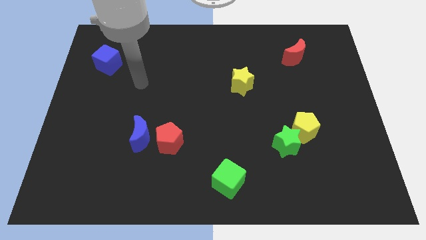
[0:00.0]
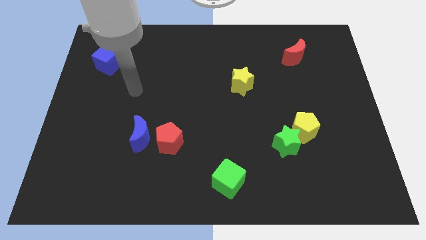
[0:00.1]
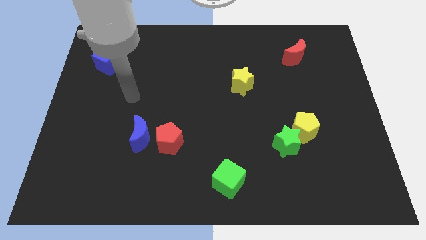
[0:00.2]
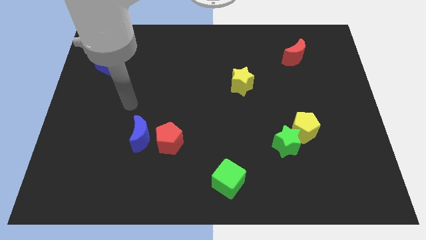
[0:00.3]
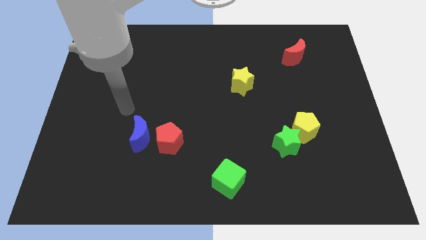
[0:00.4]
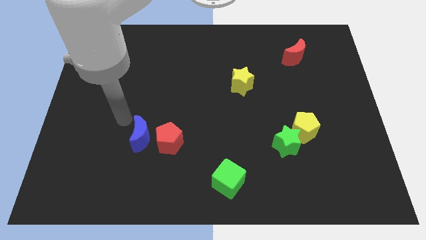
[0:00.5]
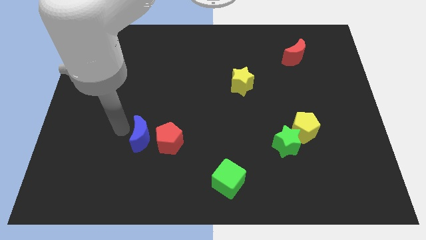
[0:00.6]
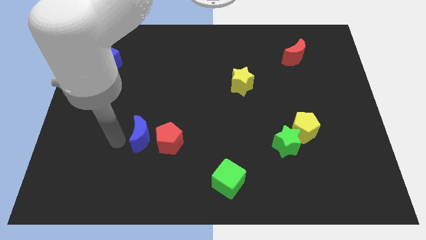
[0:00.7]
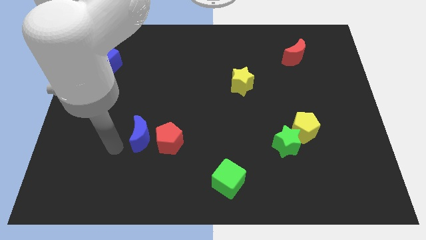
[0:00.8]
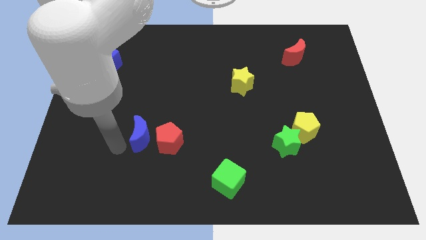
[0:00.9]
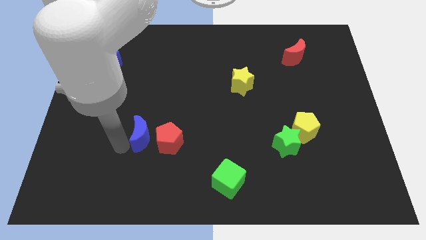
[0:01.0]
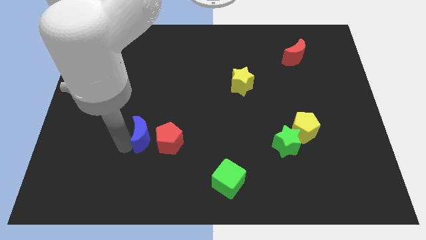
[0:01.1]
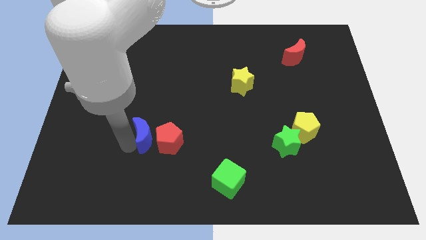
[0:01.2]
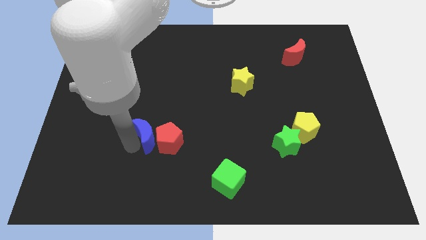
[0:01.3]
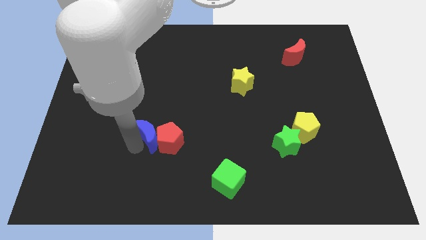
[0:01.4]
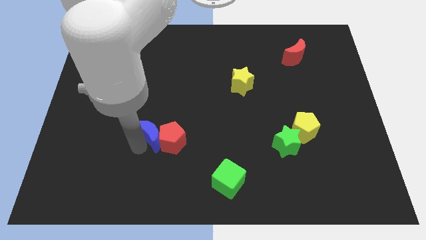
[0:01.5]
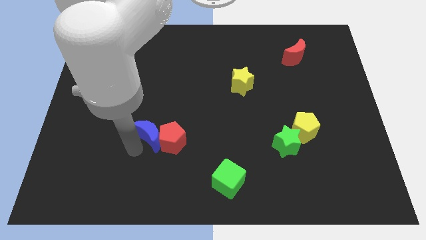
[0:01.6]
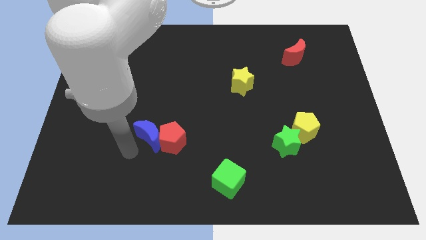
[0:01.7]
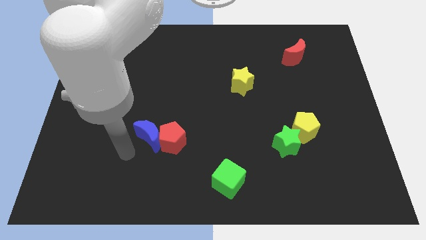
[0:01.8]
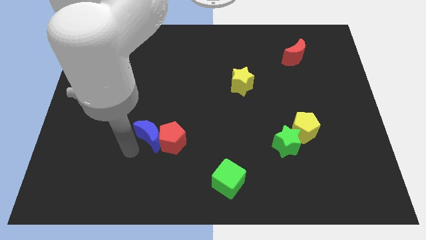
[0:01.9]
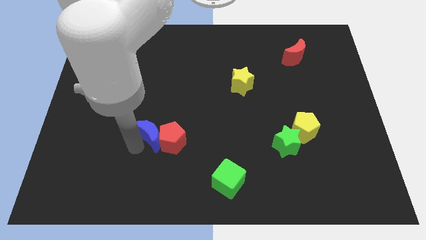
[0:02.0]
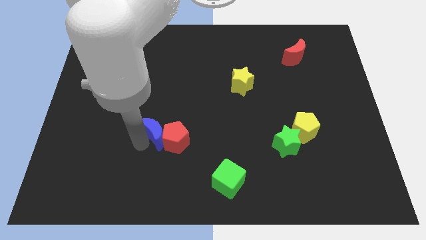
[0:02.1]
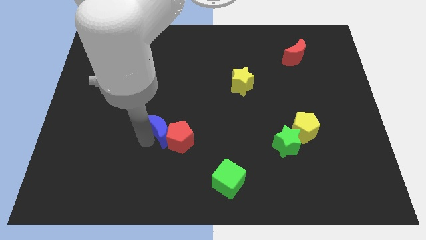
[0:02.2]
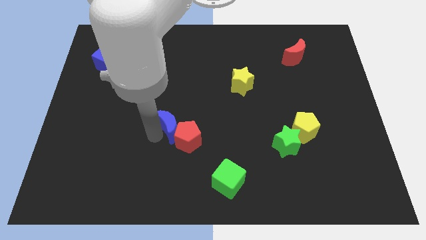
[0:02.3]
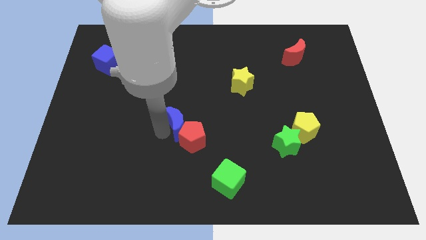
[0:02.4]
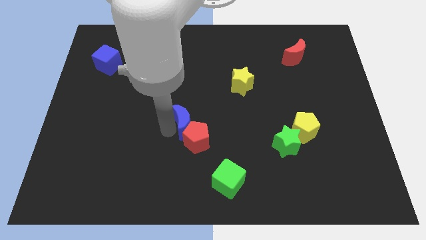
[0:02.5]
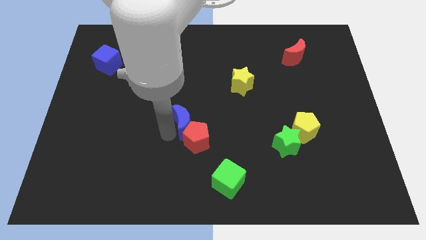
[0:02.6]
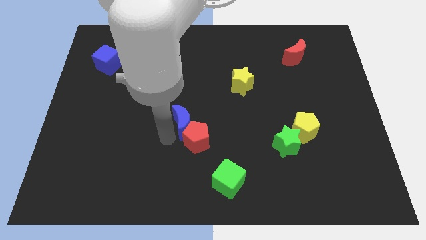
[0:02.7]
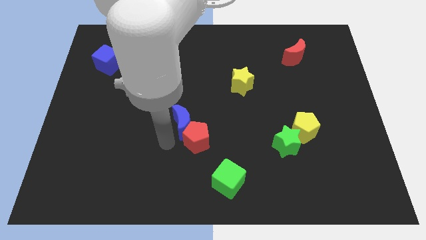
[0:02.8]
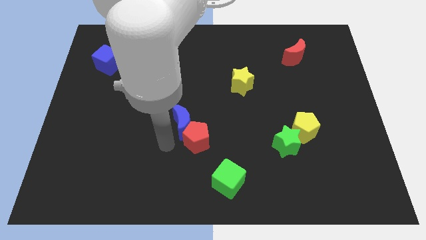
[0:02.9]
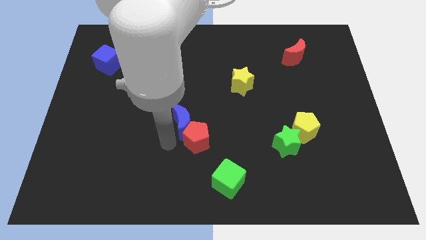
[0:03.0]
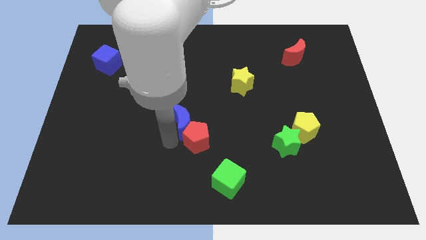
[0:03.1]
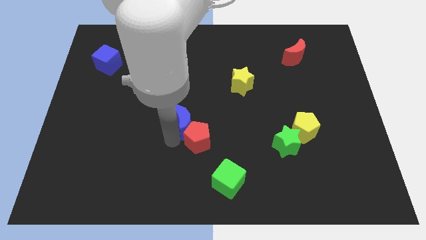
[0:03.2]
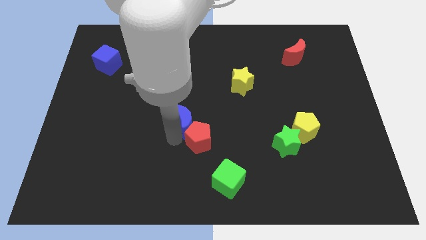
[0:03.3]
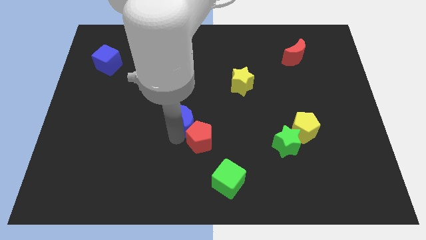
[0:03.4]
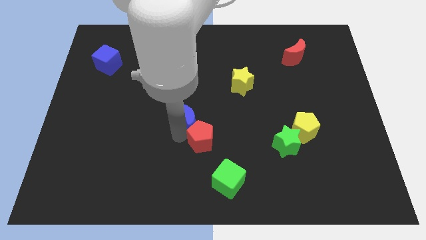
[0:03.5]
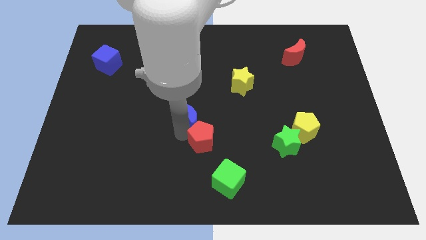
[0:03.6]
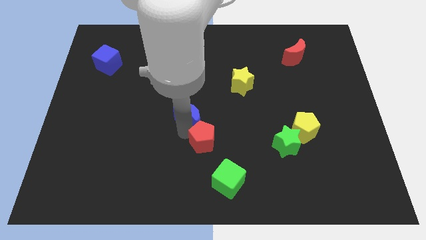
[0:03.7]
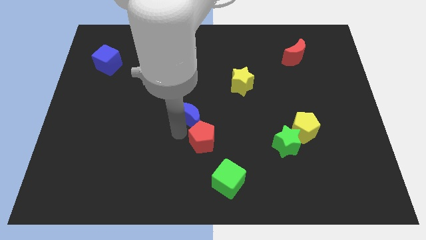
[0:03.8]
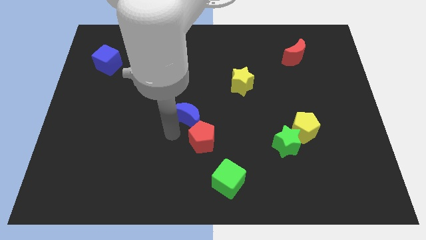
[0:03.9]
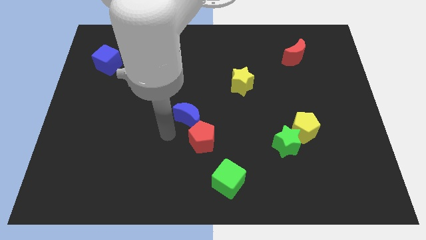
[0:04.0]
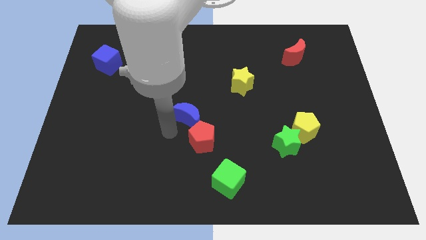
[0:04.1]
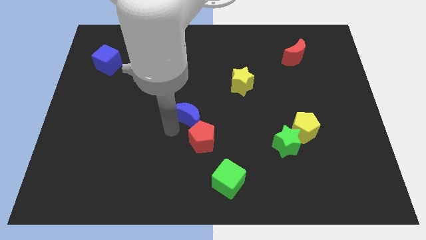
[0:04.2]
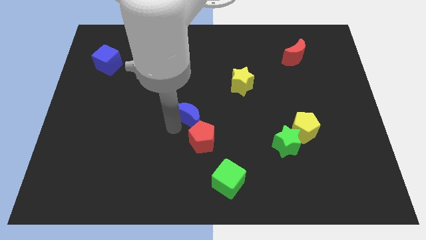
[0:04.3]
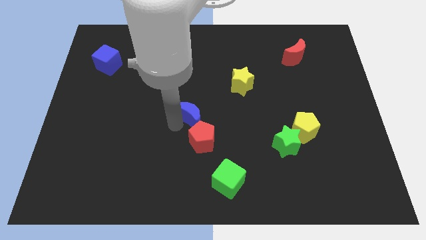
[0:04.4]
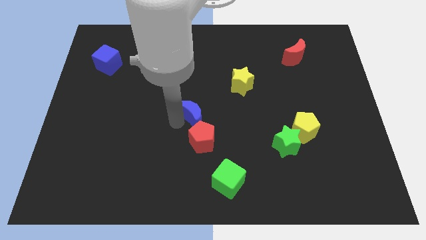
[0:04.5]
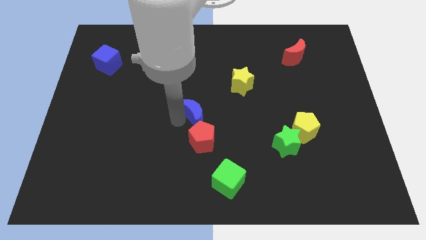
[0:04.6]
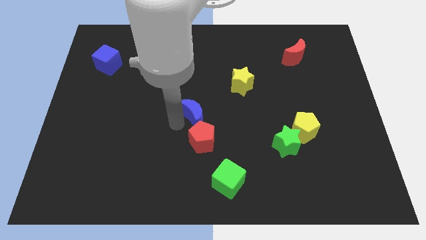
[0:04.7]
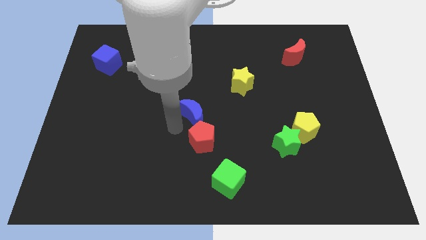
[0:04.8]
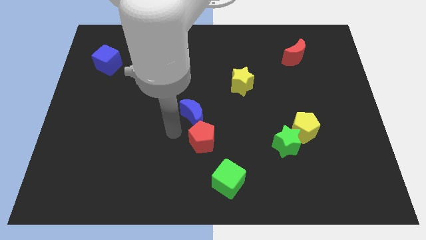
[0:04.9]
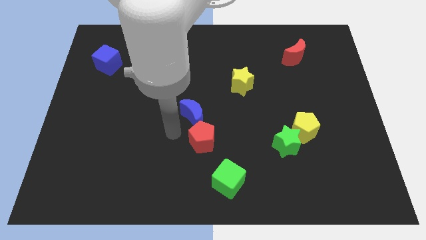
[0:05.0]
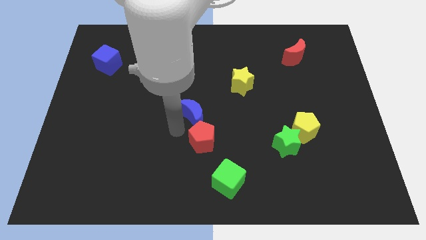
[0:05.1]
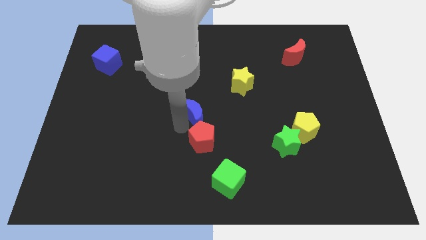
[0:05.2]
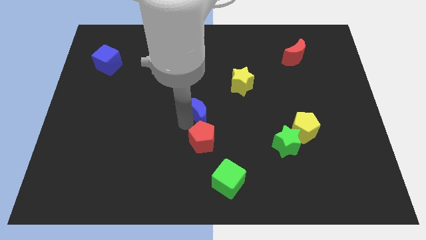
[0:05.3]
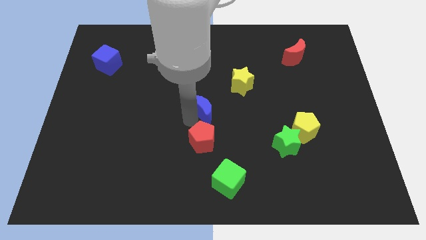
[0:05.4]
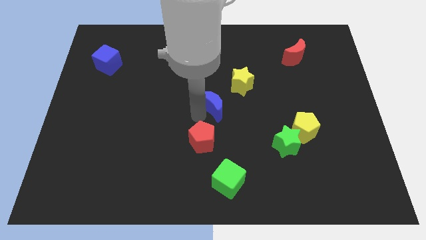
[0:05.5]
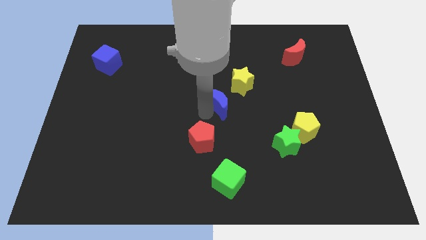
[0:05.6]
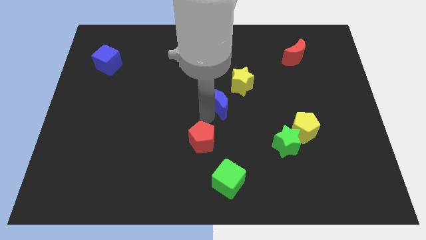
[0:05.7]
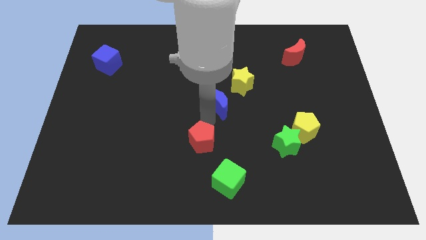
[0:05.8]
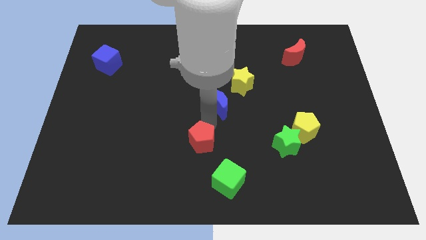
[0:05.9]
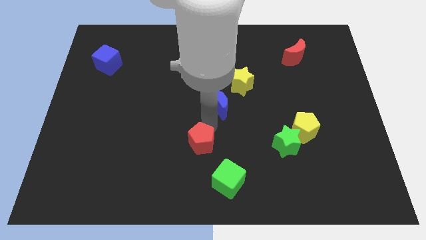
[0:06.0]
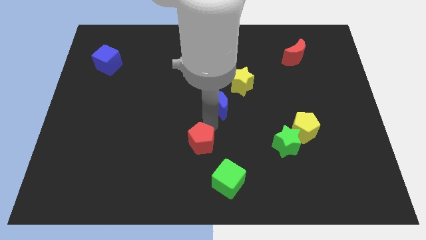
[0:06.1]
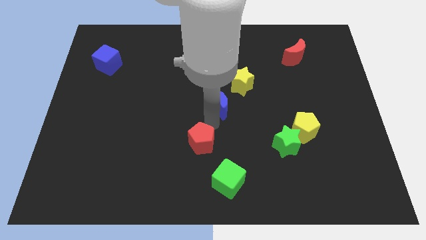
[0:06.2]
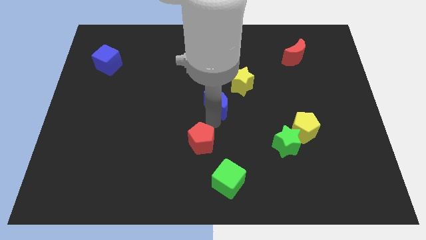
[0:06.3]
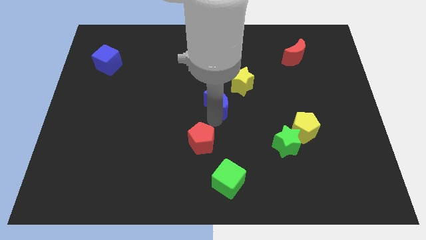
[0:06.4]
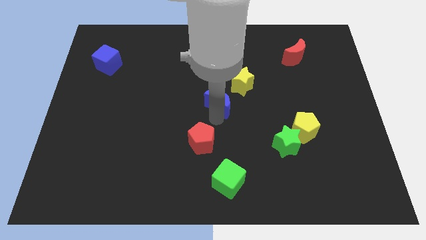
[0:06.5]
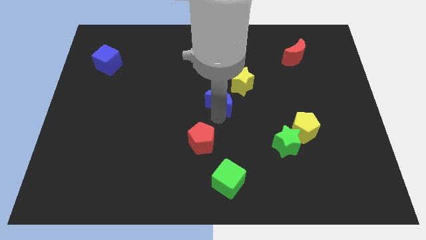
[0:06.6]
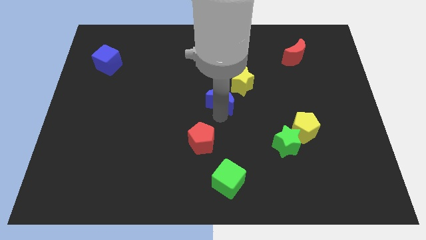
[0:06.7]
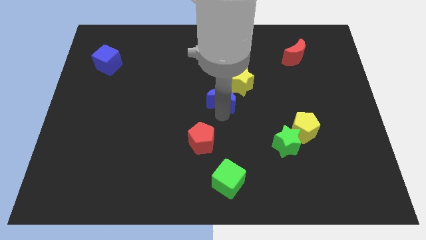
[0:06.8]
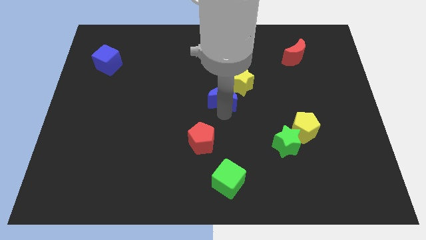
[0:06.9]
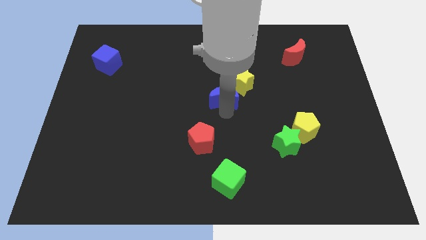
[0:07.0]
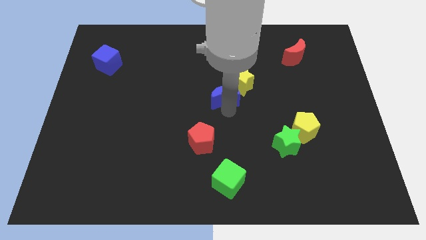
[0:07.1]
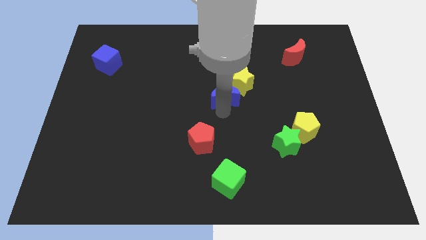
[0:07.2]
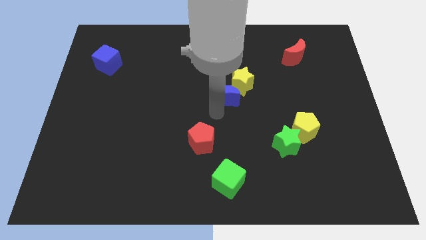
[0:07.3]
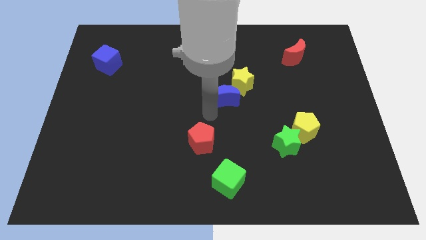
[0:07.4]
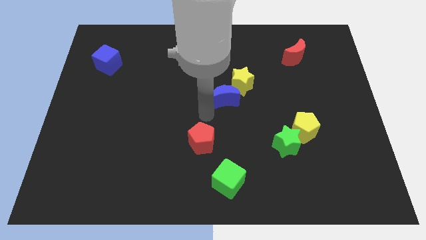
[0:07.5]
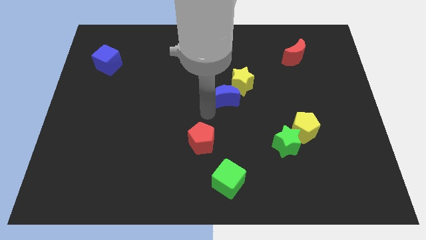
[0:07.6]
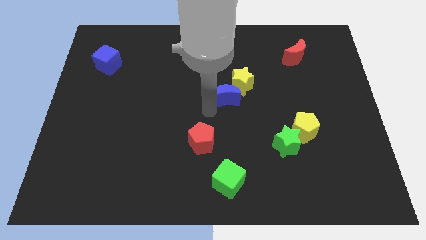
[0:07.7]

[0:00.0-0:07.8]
put the blue moon towards the yellow star
